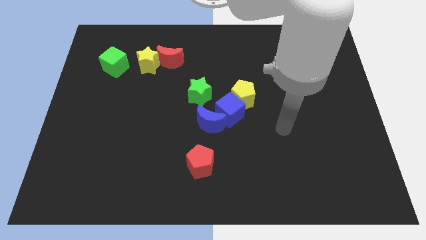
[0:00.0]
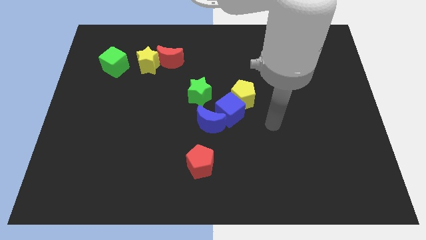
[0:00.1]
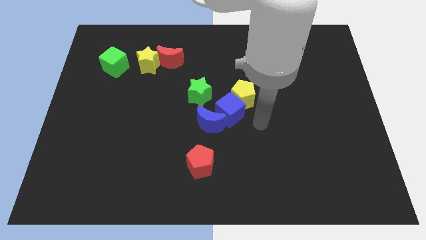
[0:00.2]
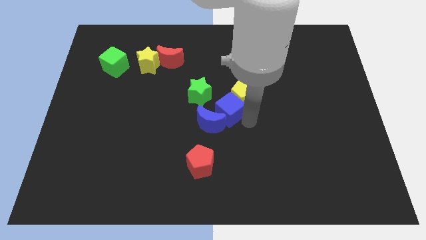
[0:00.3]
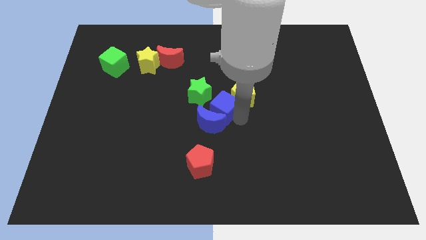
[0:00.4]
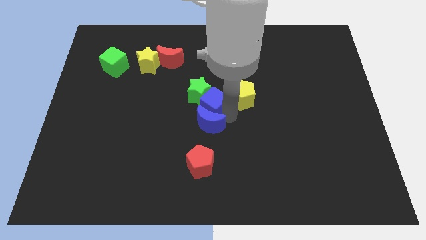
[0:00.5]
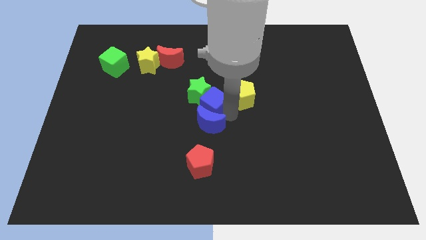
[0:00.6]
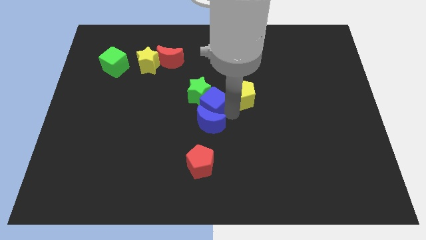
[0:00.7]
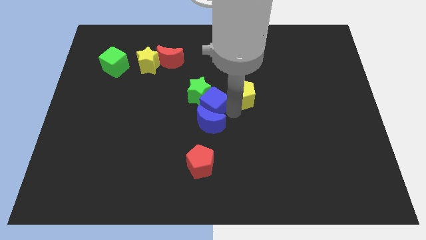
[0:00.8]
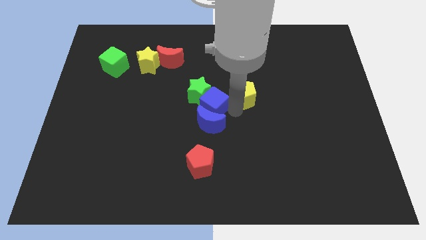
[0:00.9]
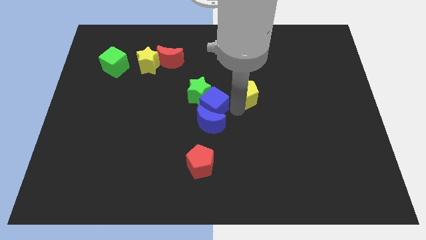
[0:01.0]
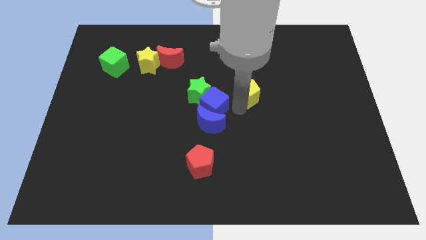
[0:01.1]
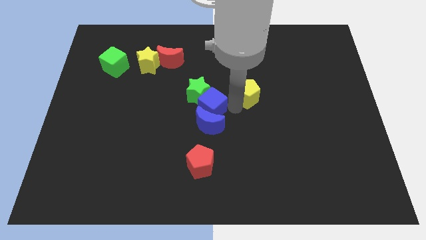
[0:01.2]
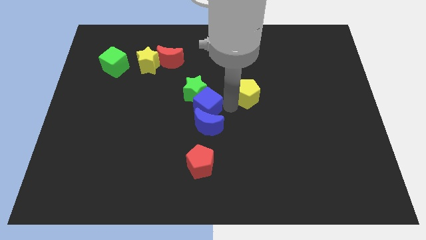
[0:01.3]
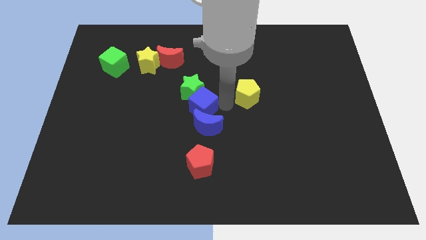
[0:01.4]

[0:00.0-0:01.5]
separate the yellow pentagon from the blue cube

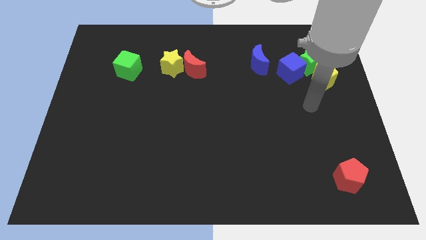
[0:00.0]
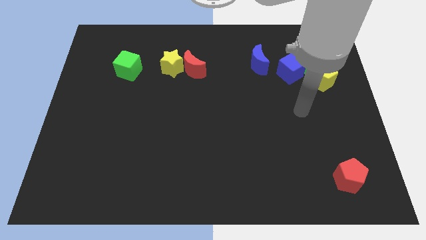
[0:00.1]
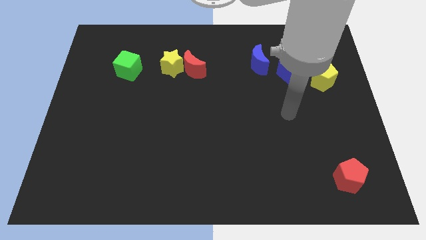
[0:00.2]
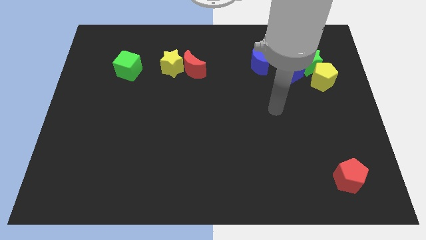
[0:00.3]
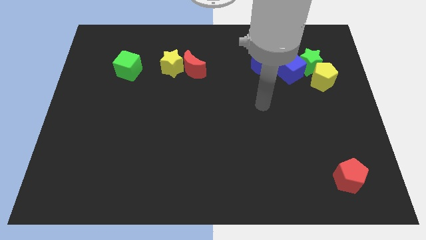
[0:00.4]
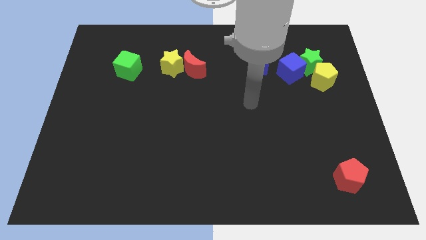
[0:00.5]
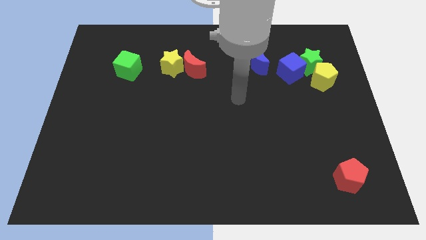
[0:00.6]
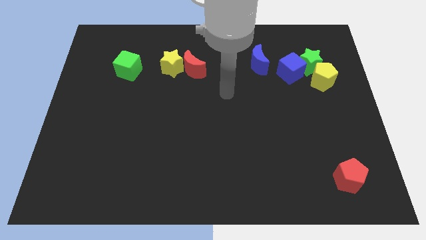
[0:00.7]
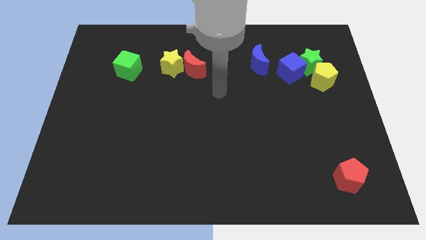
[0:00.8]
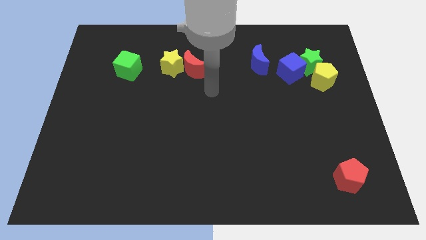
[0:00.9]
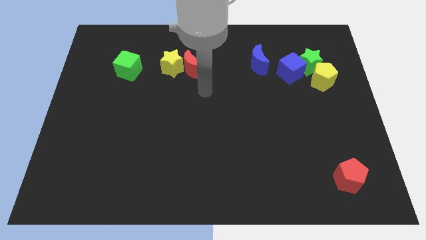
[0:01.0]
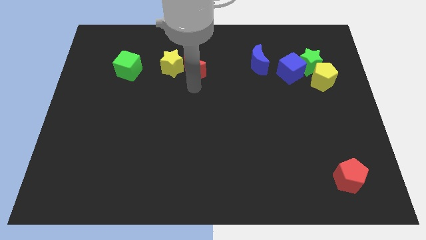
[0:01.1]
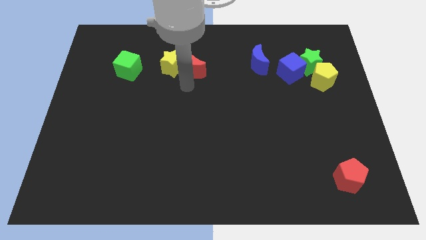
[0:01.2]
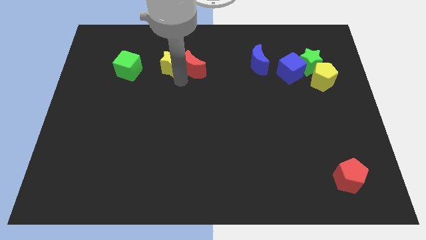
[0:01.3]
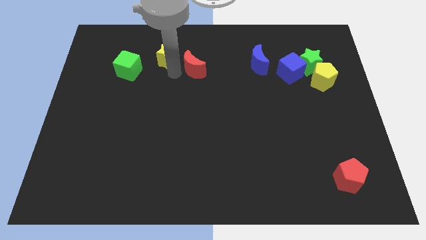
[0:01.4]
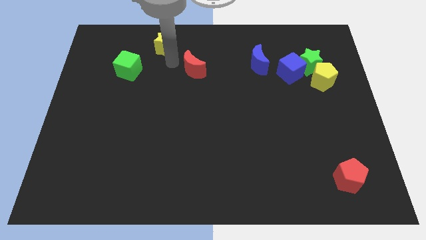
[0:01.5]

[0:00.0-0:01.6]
separate the red moon from the yellow star

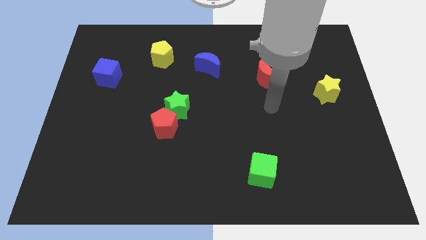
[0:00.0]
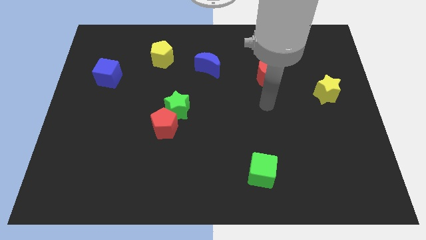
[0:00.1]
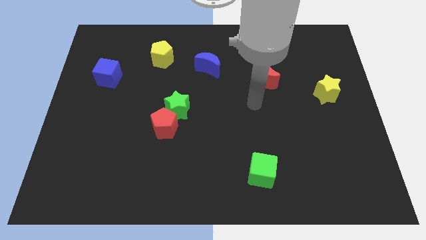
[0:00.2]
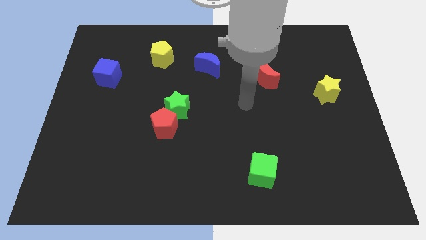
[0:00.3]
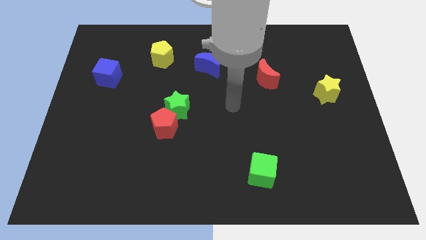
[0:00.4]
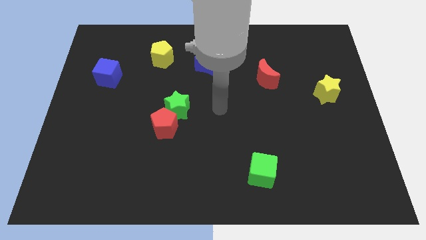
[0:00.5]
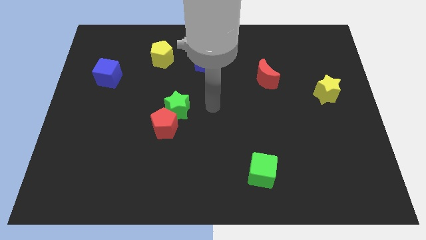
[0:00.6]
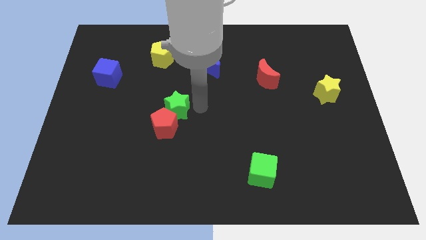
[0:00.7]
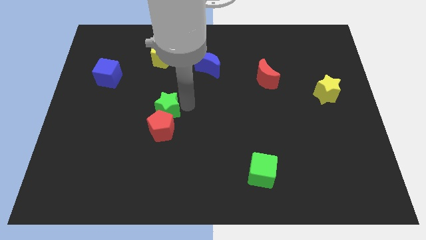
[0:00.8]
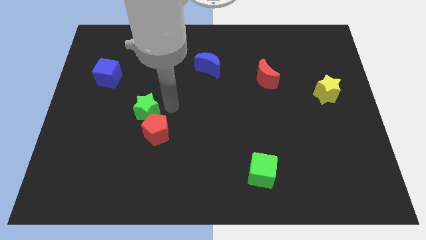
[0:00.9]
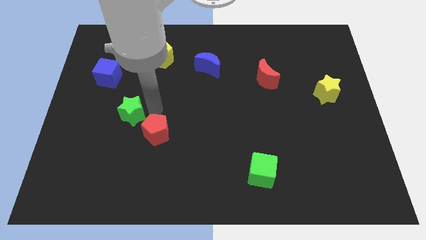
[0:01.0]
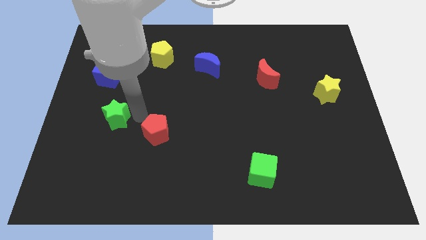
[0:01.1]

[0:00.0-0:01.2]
move the red pentagon away from the green star

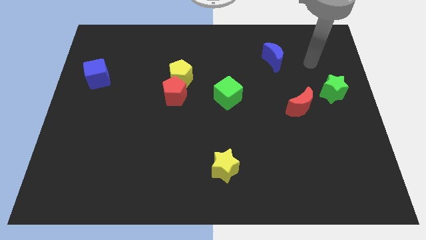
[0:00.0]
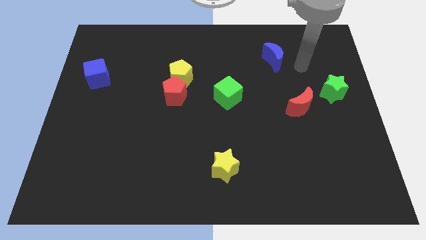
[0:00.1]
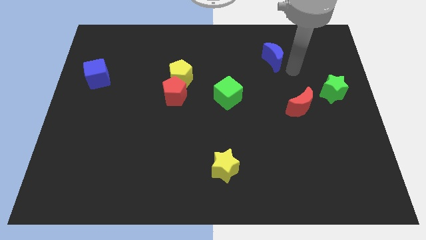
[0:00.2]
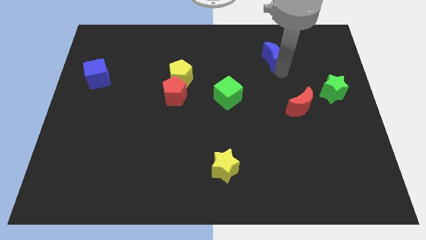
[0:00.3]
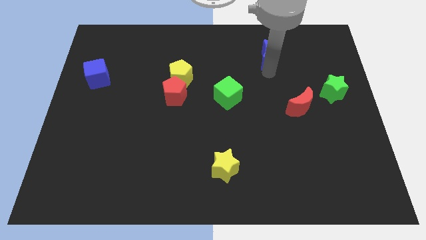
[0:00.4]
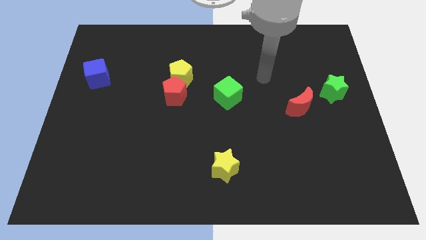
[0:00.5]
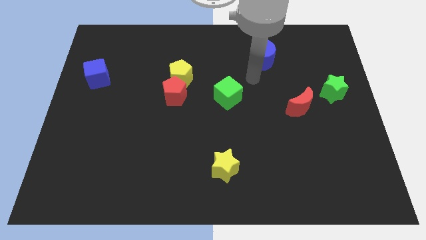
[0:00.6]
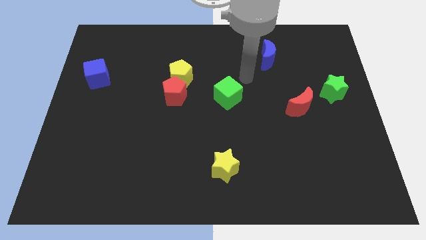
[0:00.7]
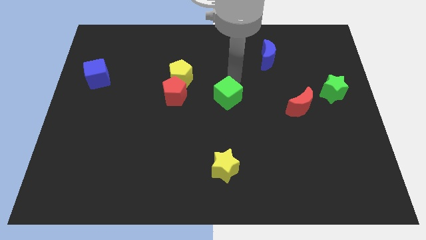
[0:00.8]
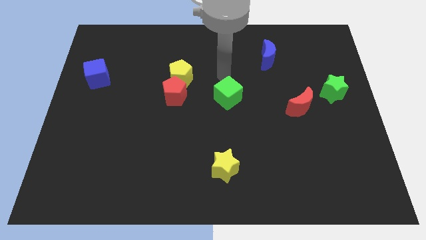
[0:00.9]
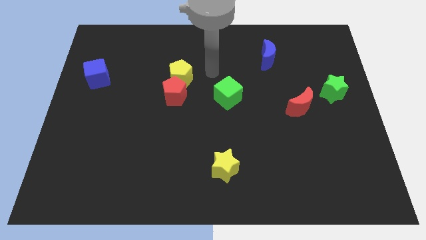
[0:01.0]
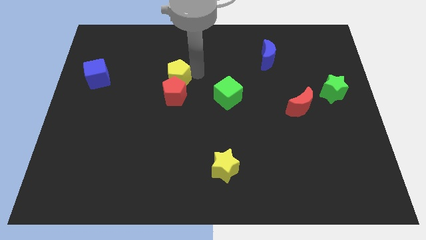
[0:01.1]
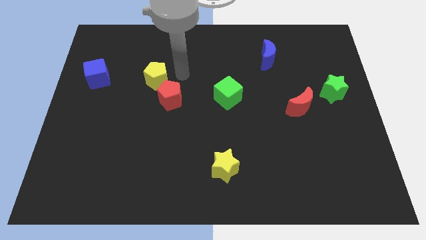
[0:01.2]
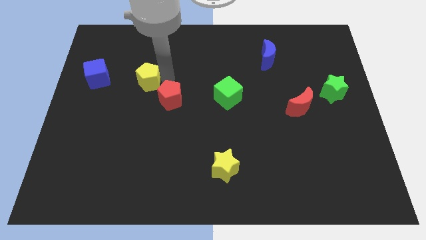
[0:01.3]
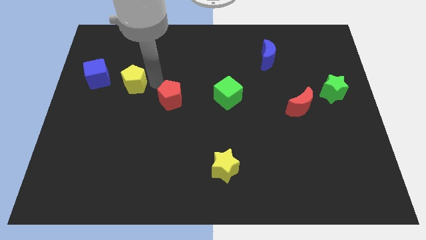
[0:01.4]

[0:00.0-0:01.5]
separate the red pentagon from the yellow pentagon

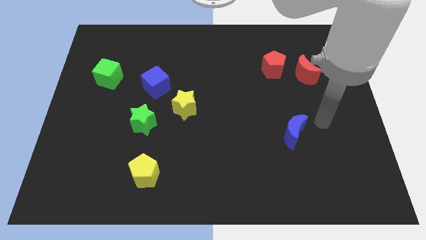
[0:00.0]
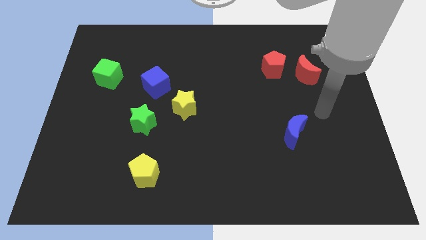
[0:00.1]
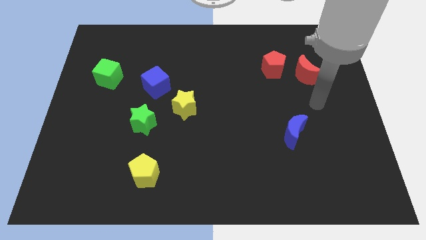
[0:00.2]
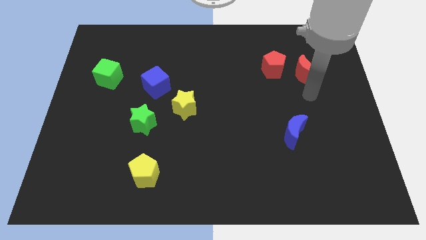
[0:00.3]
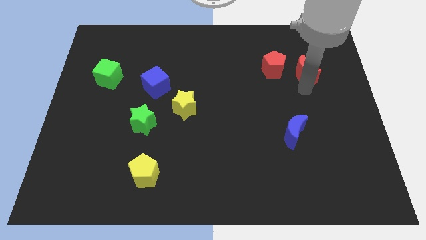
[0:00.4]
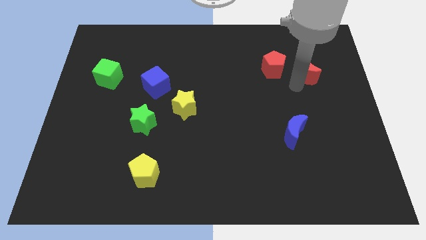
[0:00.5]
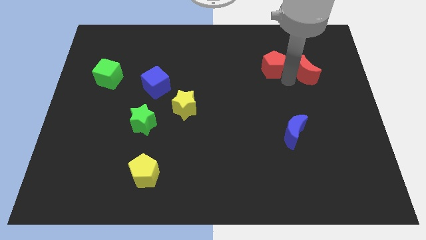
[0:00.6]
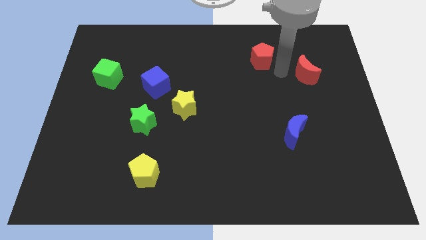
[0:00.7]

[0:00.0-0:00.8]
pull the red moon apart from the red pentagon

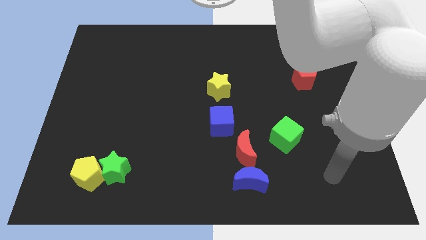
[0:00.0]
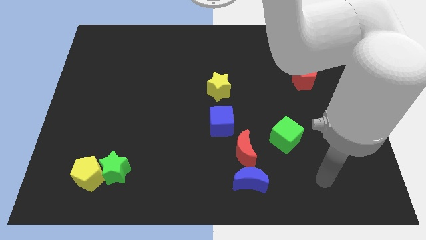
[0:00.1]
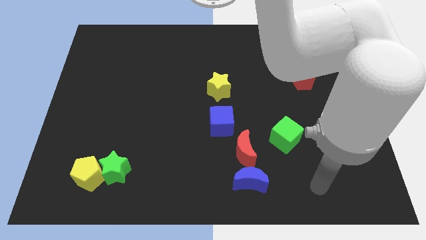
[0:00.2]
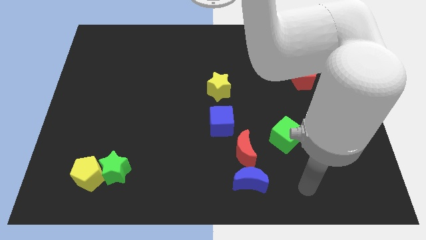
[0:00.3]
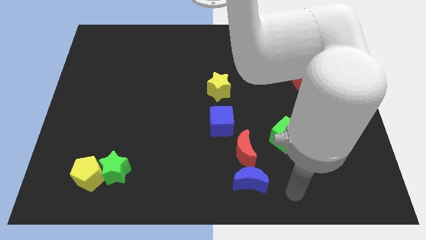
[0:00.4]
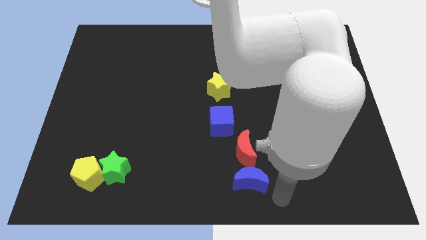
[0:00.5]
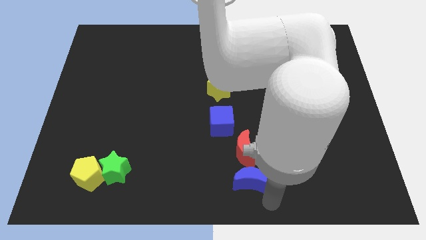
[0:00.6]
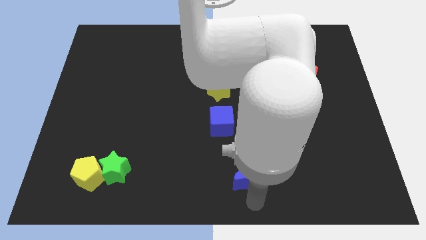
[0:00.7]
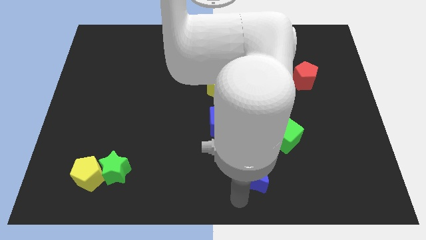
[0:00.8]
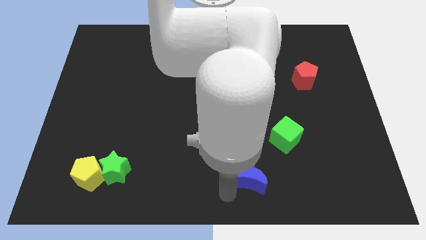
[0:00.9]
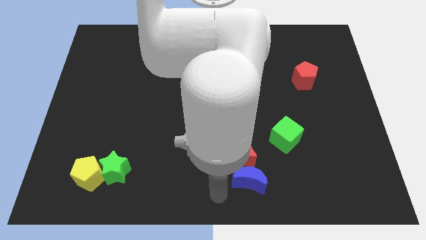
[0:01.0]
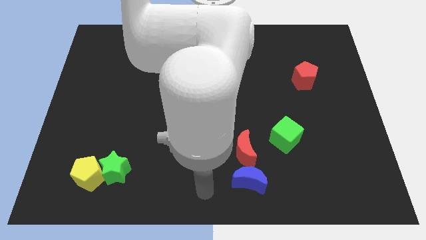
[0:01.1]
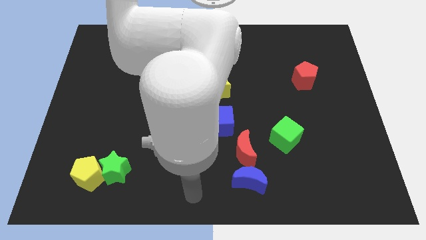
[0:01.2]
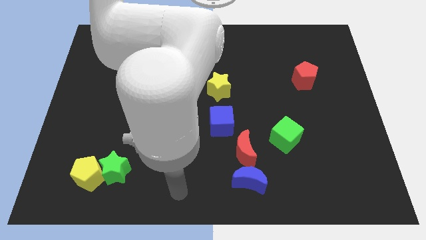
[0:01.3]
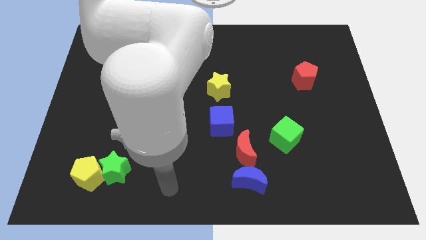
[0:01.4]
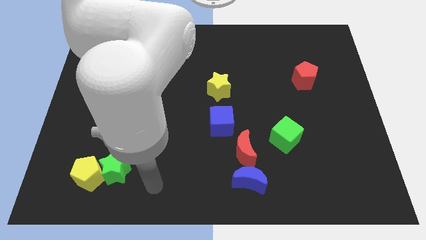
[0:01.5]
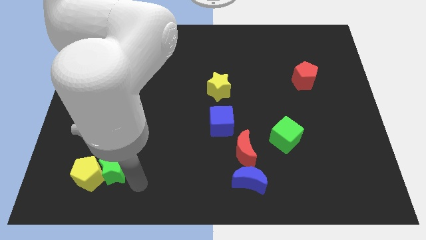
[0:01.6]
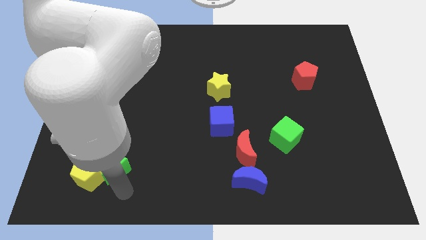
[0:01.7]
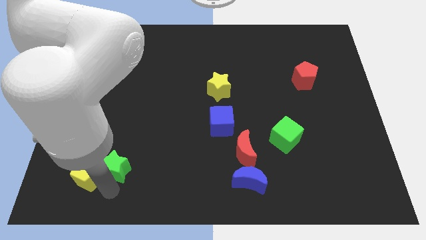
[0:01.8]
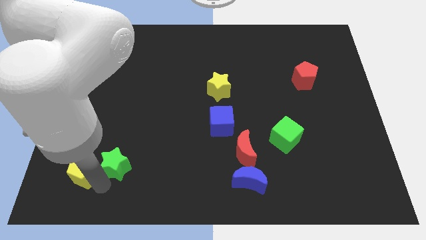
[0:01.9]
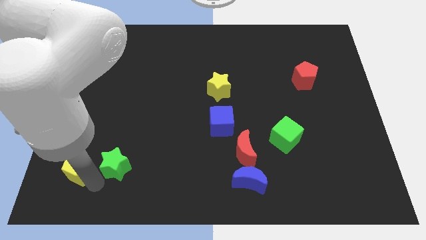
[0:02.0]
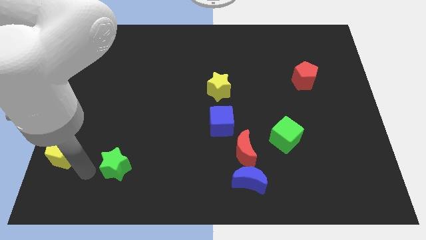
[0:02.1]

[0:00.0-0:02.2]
separate the green star from the yellow pentagon

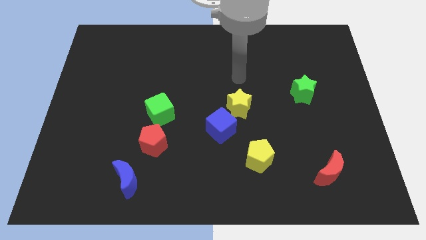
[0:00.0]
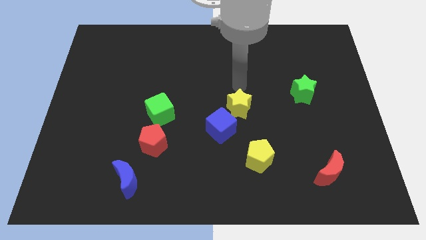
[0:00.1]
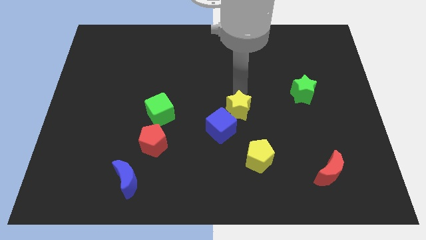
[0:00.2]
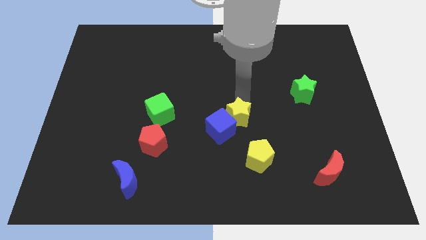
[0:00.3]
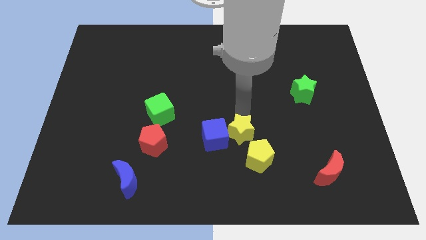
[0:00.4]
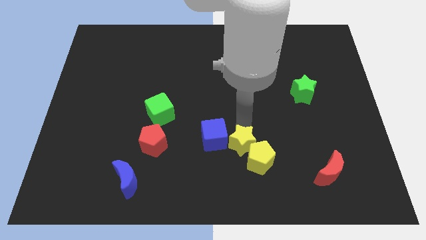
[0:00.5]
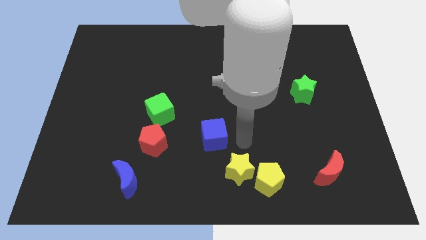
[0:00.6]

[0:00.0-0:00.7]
pull the blue cube apart from the yellow star

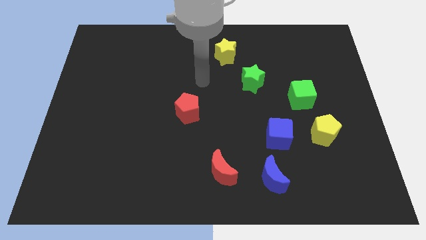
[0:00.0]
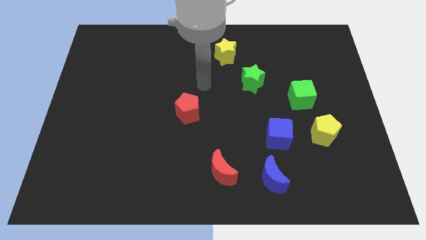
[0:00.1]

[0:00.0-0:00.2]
move the blue cube away from the yellow pentagon
